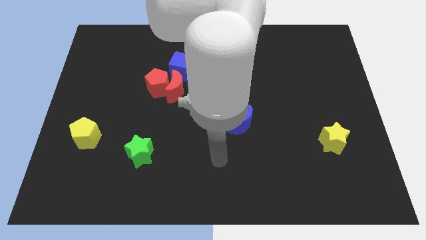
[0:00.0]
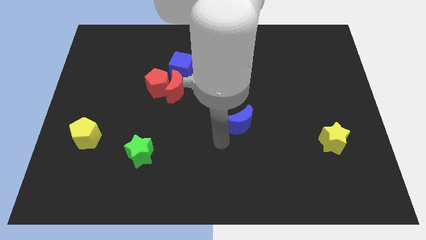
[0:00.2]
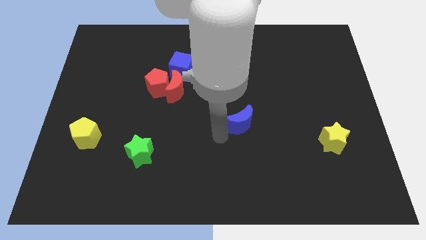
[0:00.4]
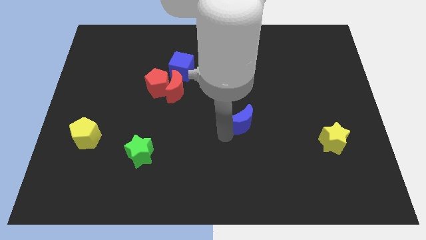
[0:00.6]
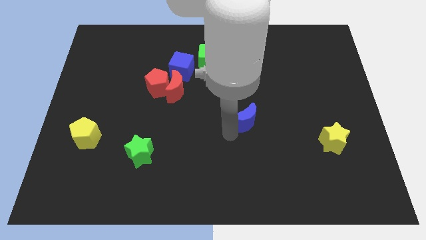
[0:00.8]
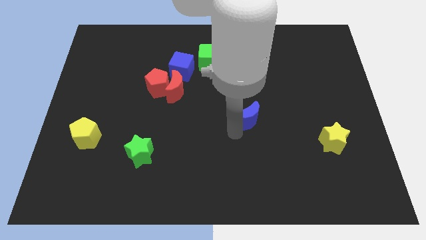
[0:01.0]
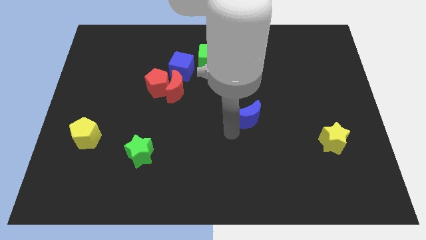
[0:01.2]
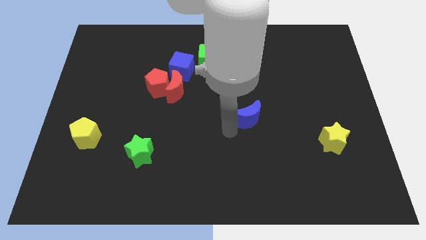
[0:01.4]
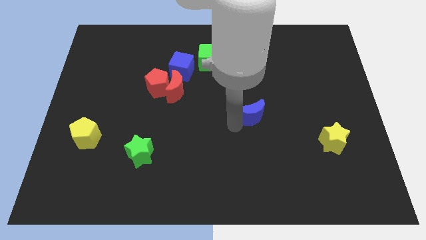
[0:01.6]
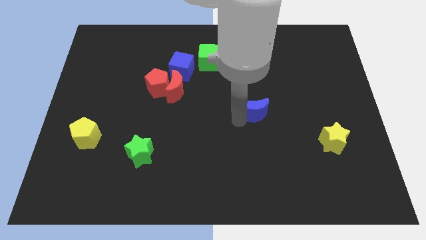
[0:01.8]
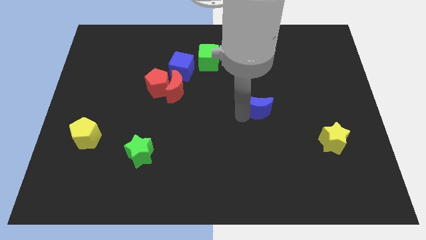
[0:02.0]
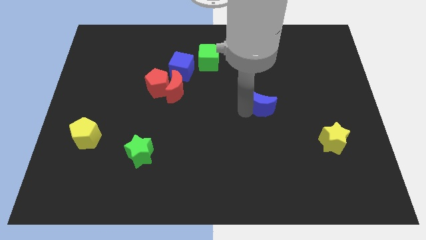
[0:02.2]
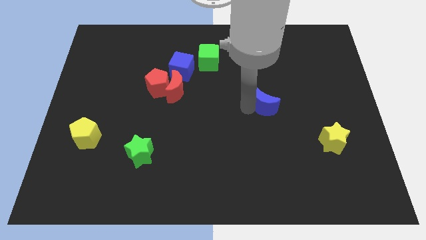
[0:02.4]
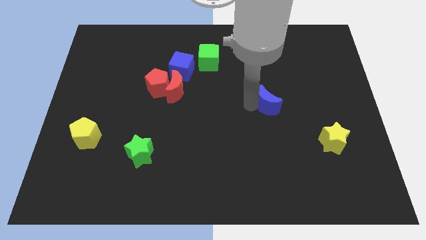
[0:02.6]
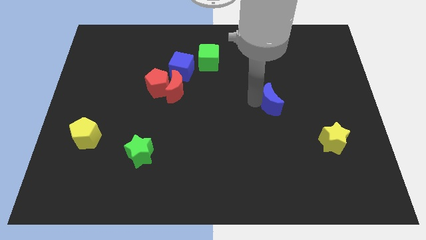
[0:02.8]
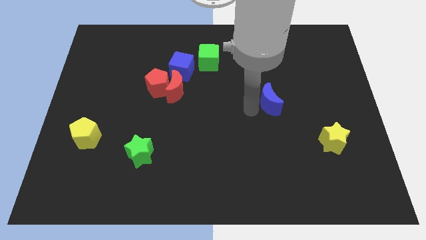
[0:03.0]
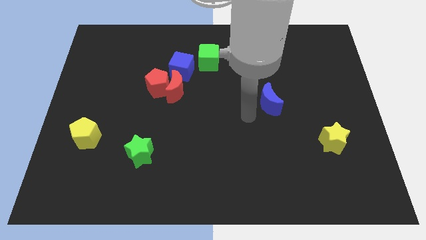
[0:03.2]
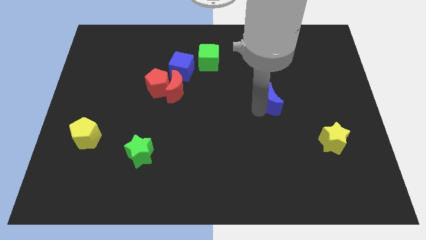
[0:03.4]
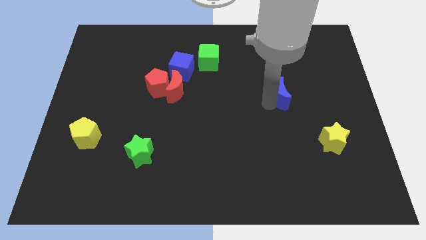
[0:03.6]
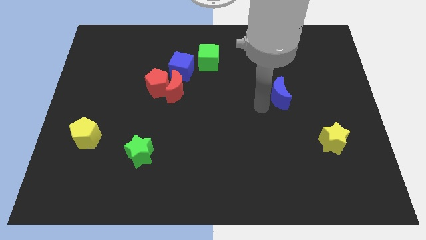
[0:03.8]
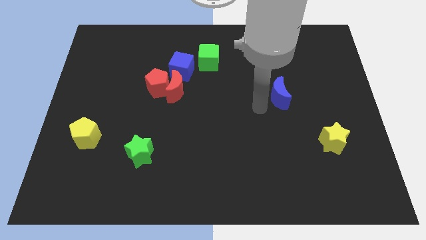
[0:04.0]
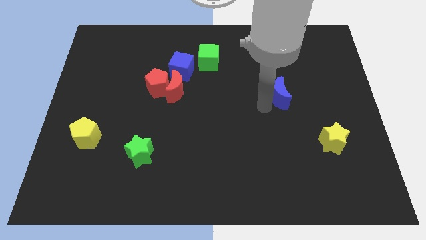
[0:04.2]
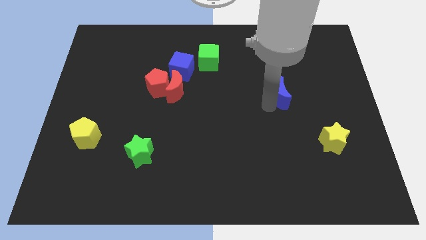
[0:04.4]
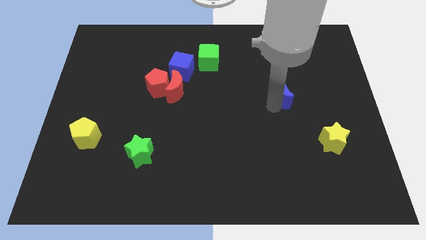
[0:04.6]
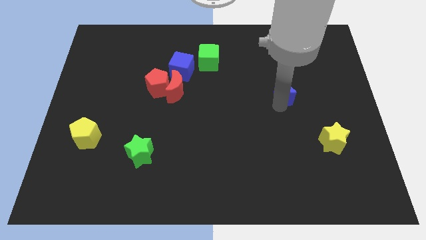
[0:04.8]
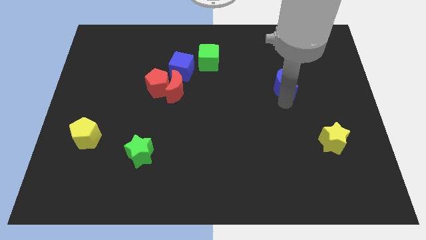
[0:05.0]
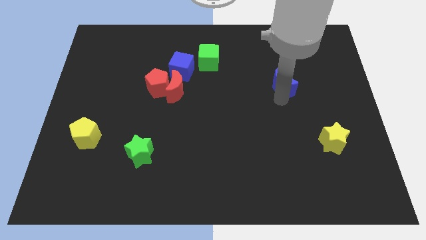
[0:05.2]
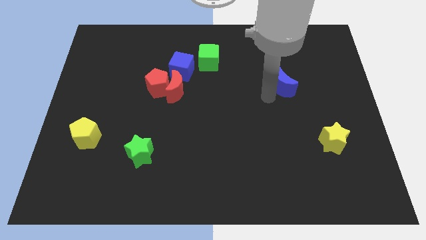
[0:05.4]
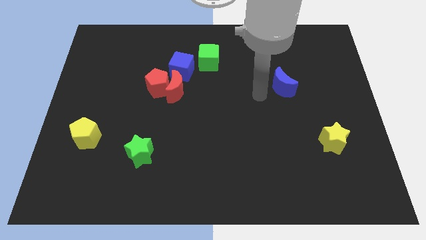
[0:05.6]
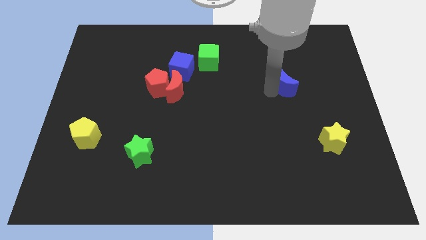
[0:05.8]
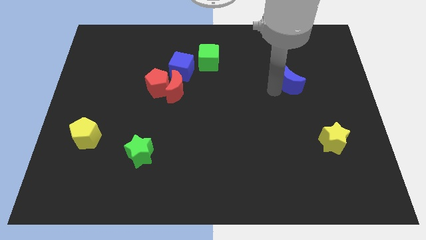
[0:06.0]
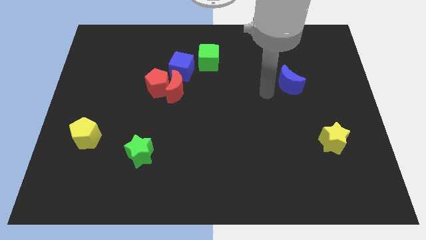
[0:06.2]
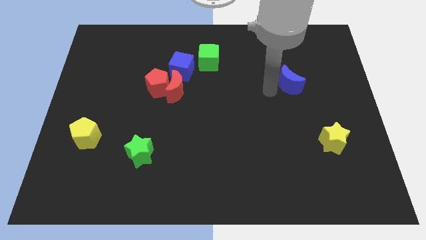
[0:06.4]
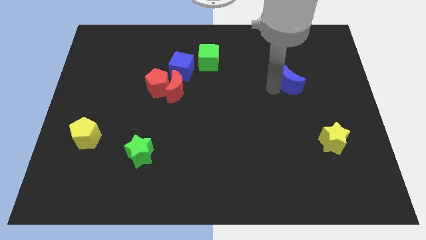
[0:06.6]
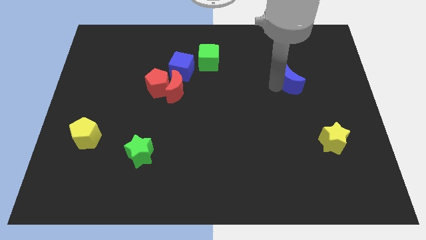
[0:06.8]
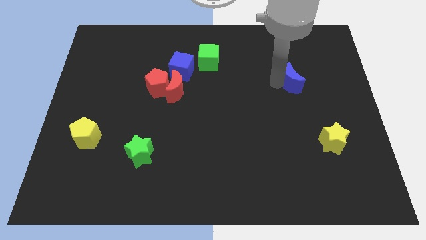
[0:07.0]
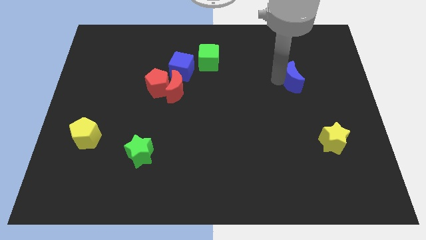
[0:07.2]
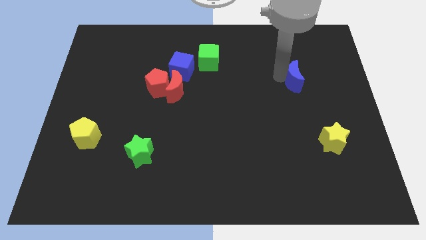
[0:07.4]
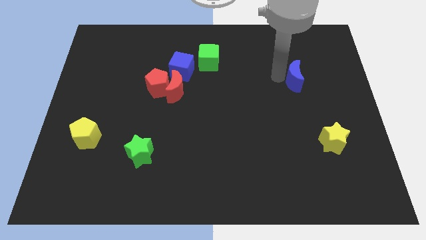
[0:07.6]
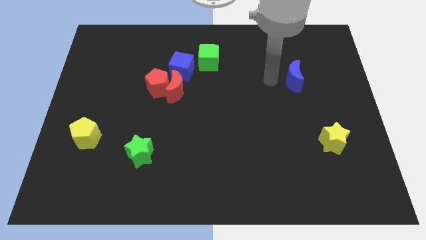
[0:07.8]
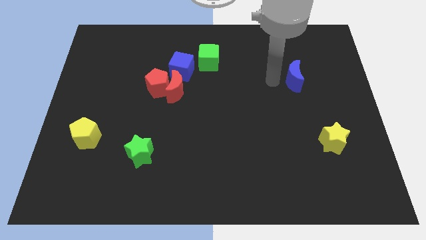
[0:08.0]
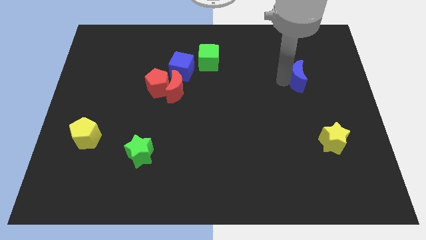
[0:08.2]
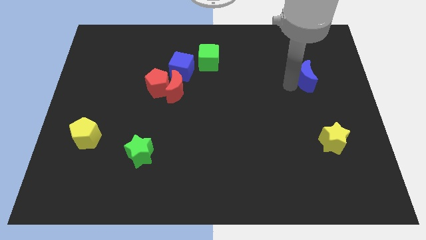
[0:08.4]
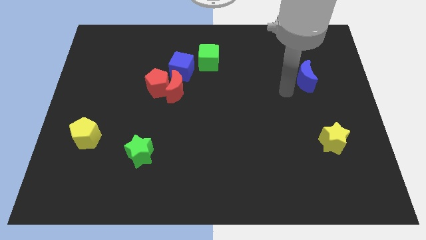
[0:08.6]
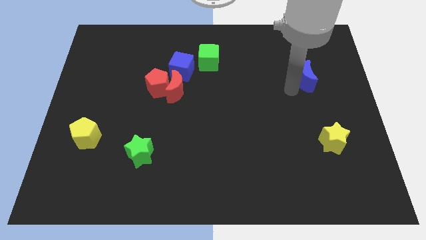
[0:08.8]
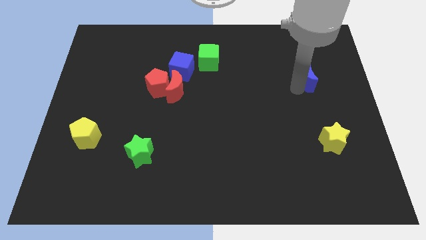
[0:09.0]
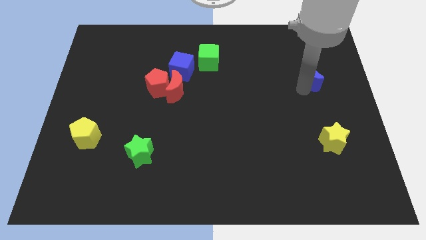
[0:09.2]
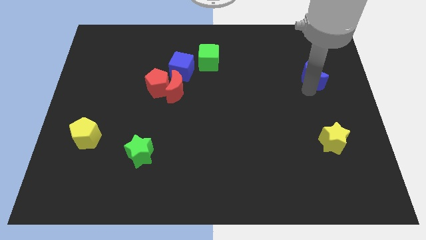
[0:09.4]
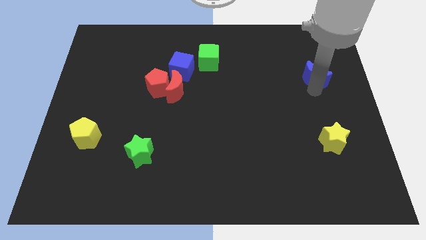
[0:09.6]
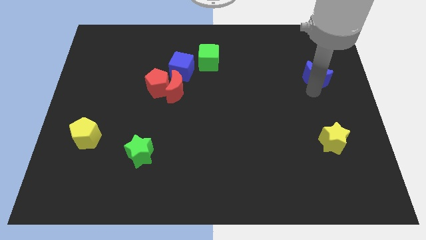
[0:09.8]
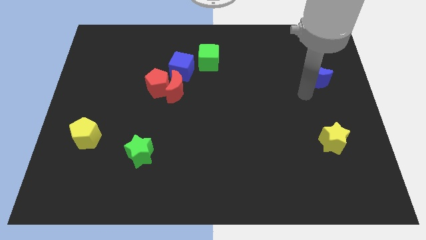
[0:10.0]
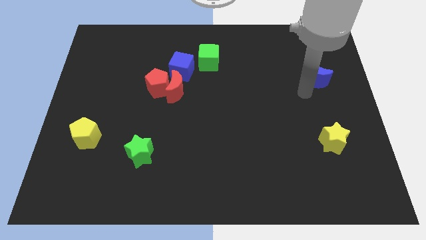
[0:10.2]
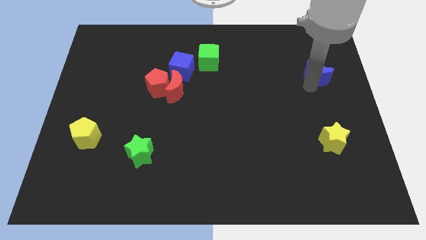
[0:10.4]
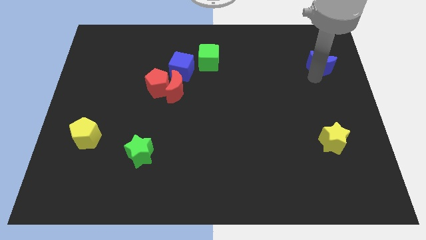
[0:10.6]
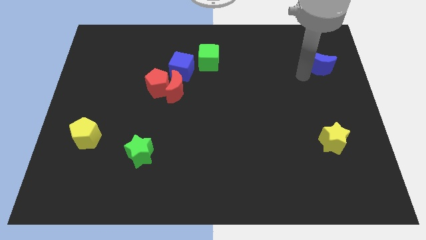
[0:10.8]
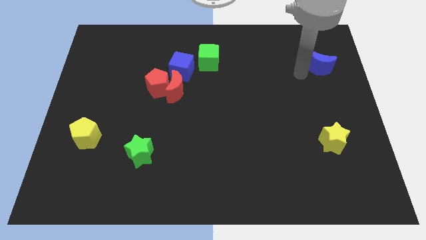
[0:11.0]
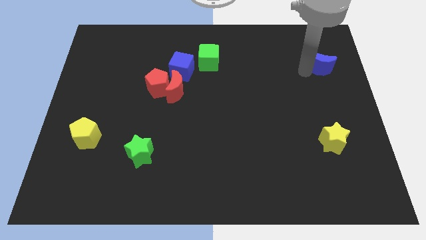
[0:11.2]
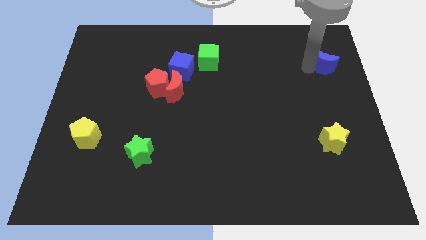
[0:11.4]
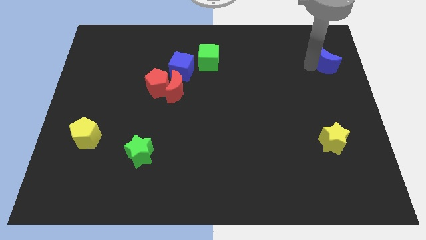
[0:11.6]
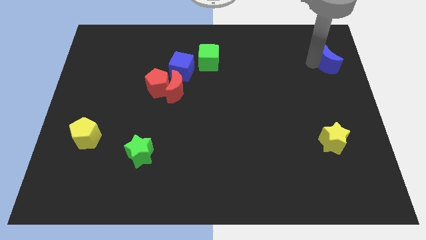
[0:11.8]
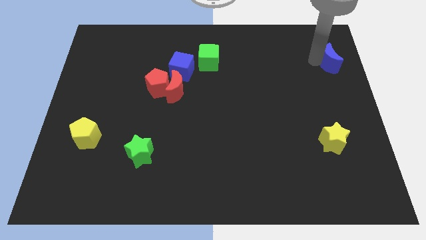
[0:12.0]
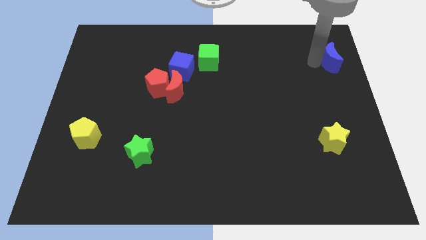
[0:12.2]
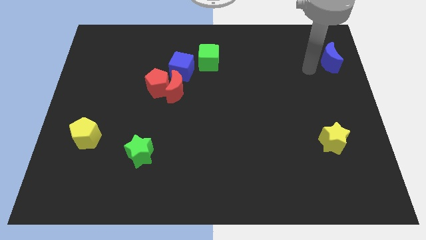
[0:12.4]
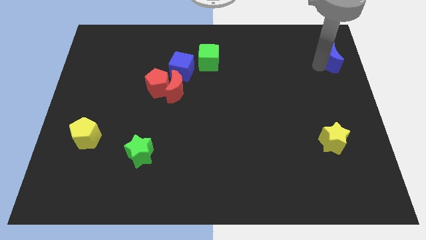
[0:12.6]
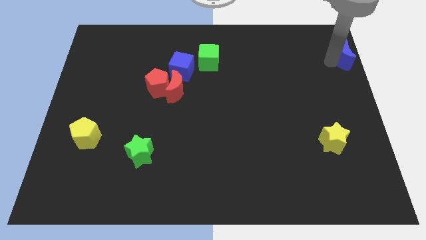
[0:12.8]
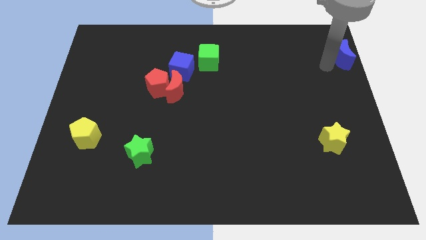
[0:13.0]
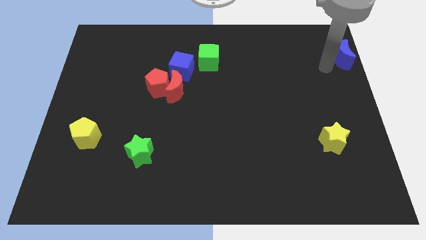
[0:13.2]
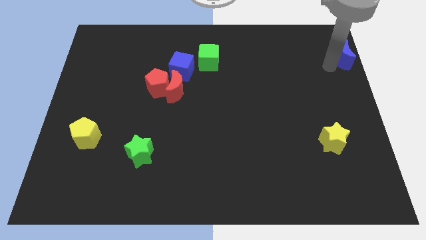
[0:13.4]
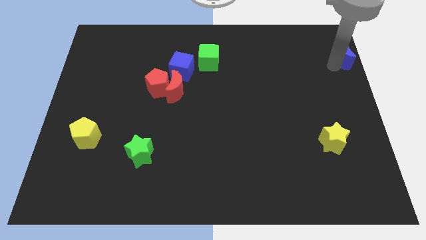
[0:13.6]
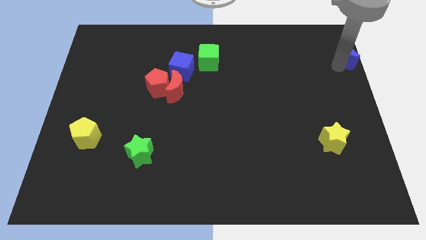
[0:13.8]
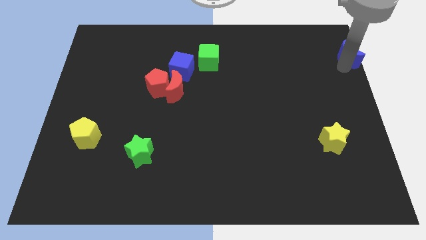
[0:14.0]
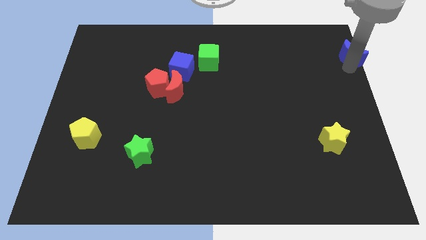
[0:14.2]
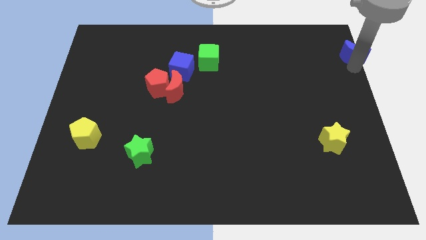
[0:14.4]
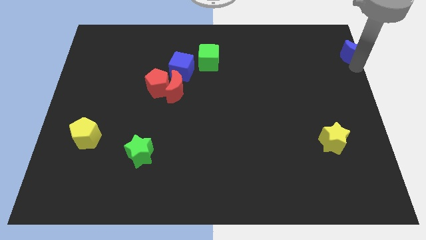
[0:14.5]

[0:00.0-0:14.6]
move the blue moon to the top right corner
